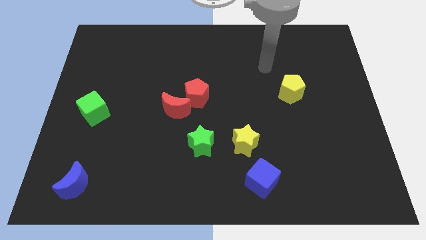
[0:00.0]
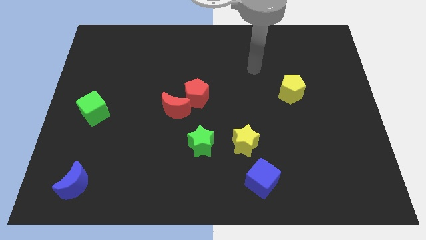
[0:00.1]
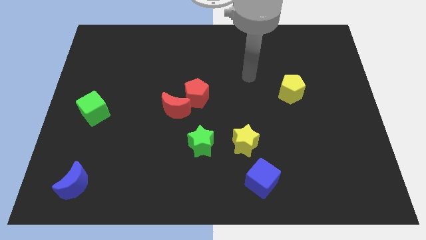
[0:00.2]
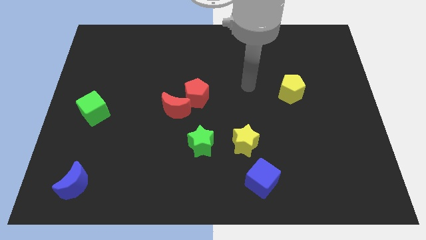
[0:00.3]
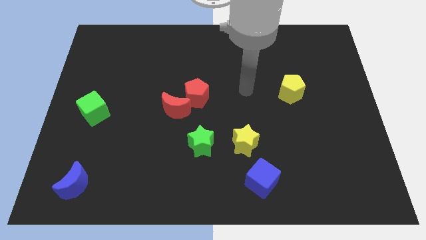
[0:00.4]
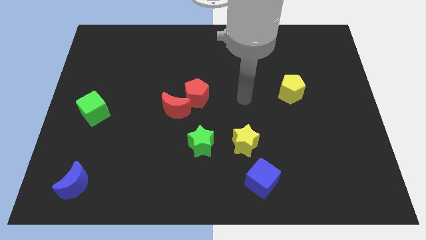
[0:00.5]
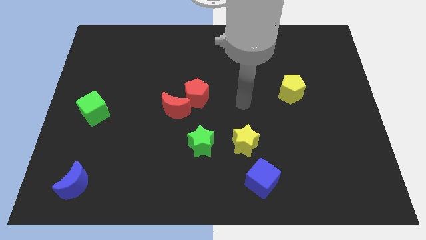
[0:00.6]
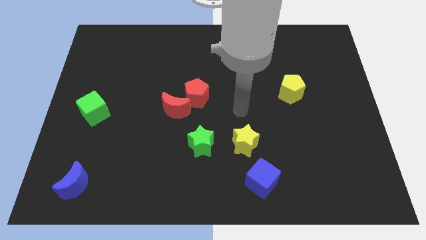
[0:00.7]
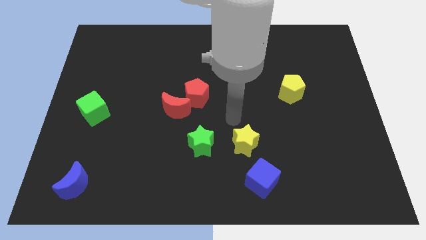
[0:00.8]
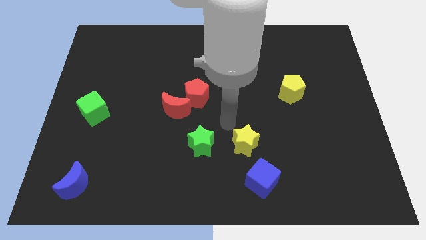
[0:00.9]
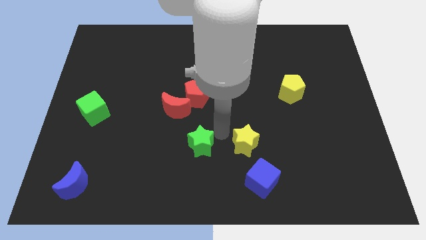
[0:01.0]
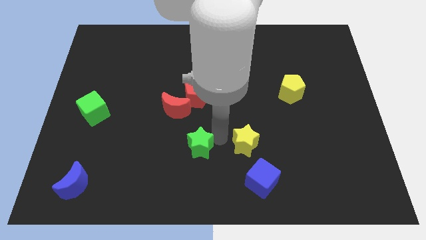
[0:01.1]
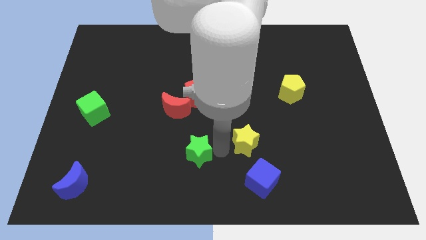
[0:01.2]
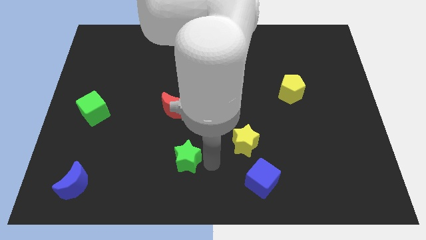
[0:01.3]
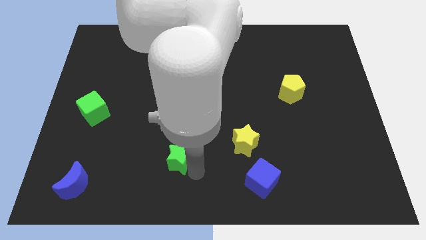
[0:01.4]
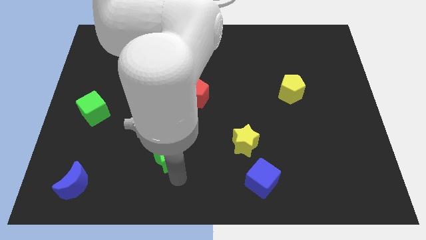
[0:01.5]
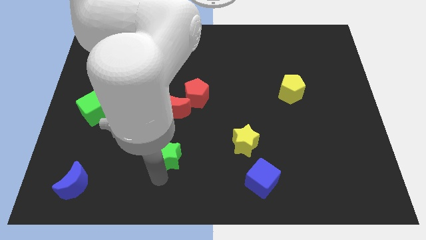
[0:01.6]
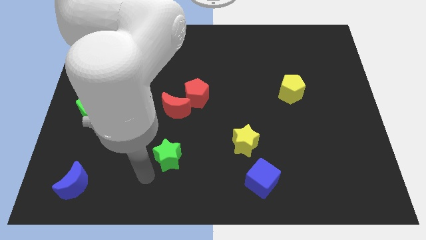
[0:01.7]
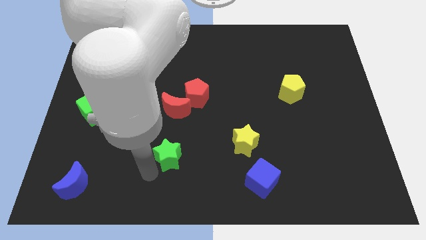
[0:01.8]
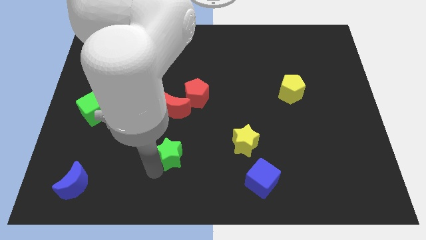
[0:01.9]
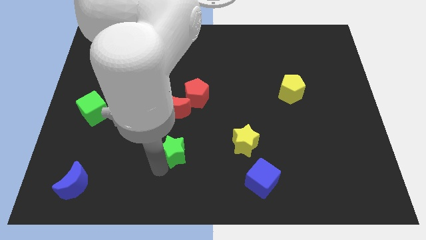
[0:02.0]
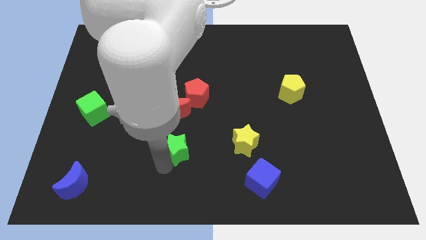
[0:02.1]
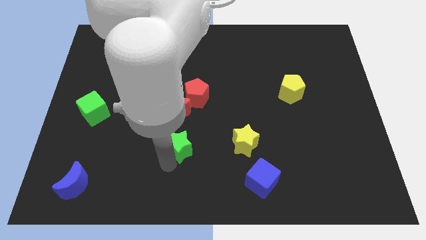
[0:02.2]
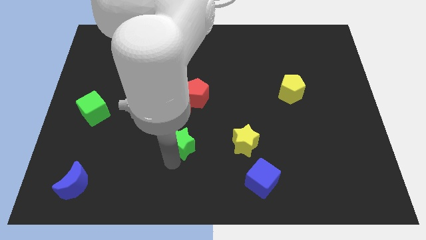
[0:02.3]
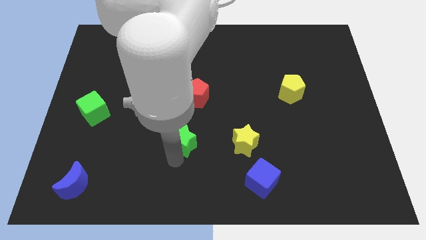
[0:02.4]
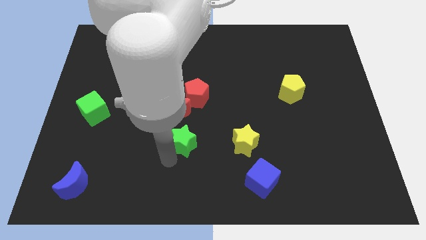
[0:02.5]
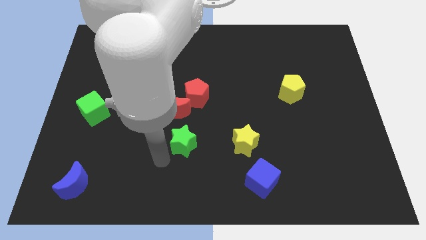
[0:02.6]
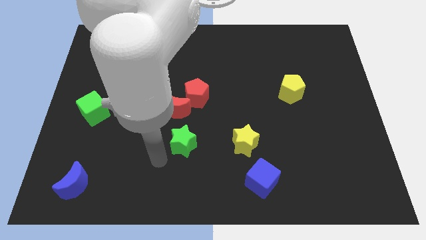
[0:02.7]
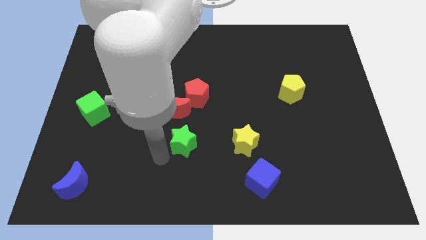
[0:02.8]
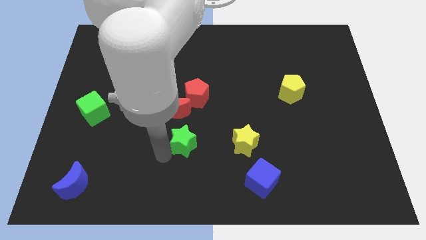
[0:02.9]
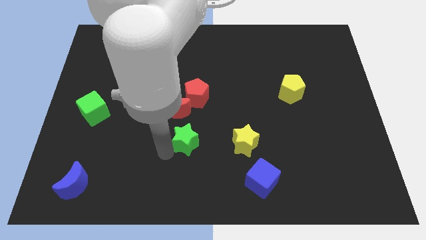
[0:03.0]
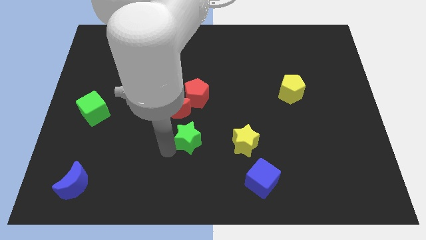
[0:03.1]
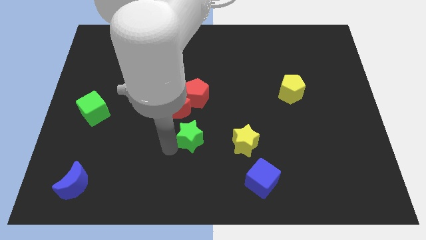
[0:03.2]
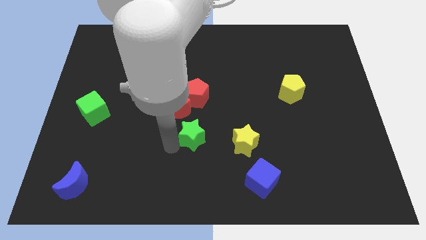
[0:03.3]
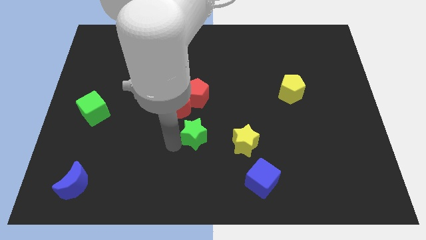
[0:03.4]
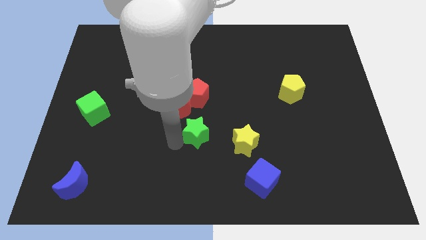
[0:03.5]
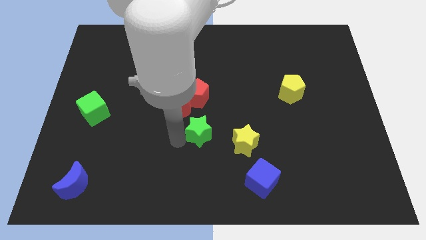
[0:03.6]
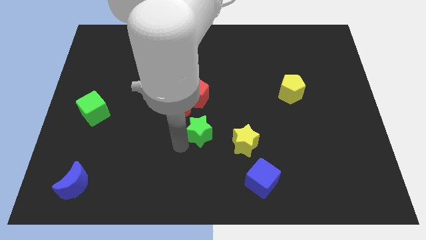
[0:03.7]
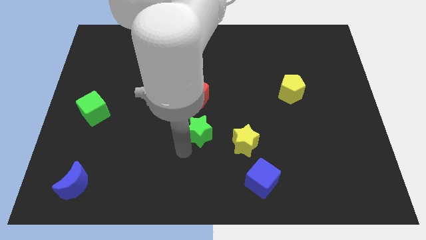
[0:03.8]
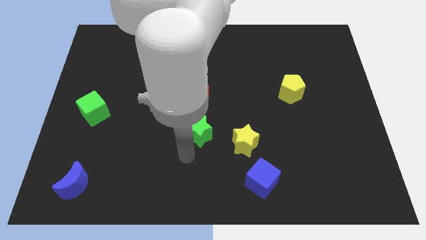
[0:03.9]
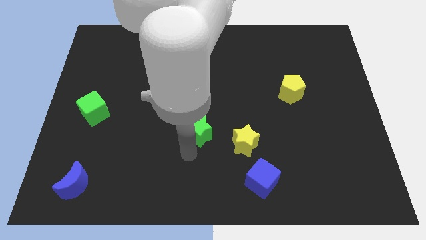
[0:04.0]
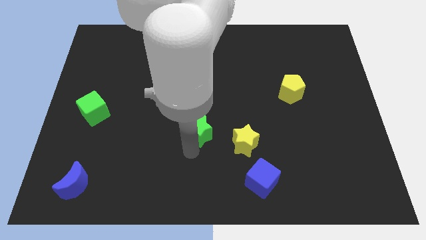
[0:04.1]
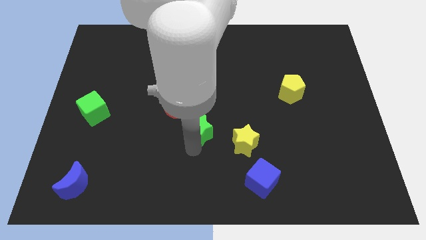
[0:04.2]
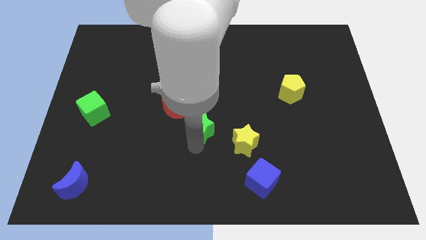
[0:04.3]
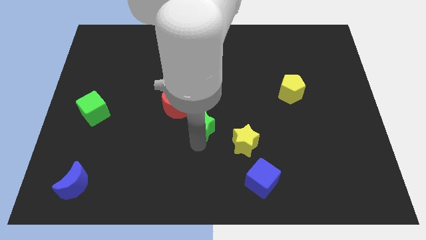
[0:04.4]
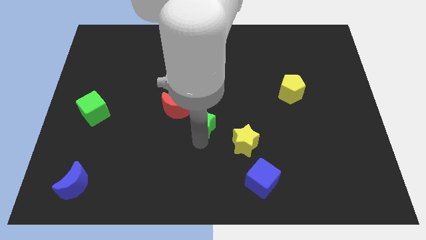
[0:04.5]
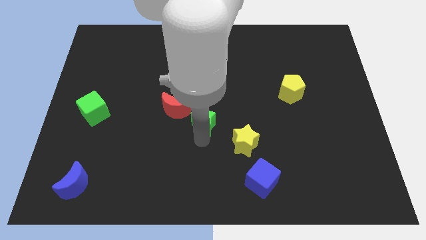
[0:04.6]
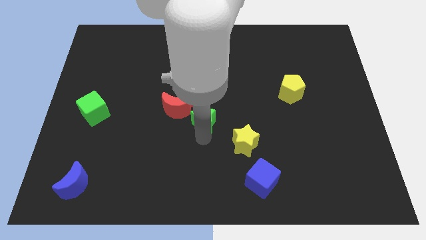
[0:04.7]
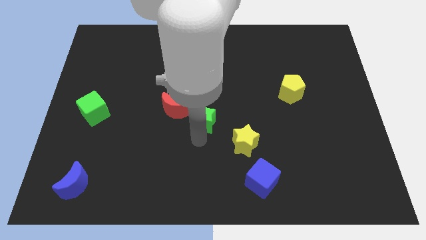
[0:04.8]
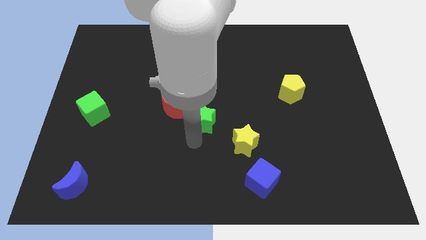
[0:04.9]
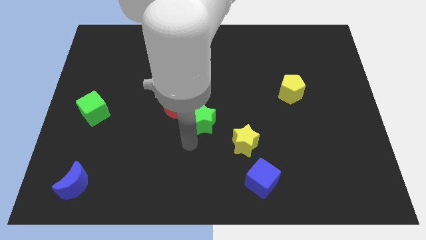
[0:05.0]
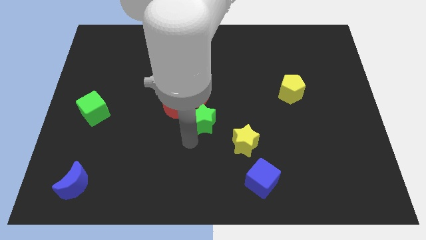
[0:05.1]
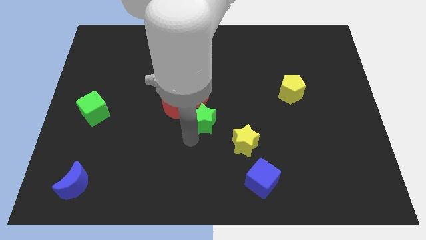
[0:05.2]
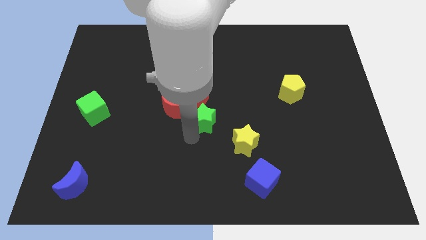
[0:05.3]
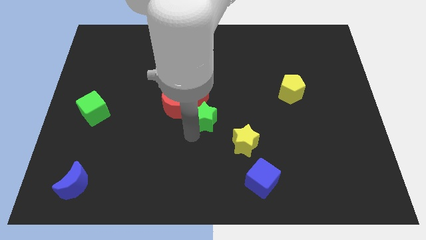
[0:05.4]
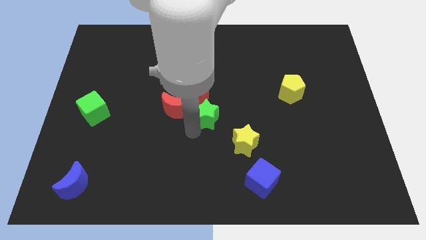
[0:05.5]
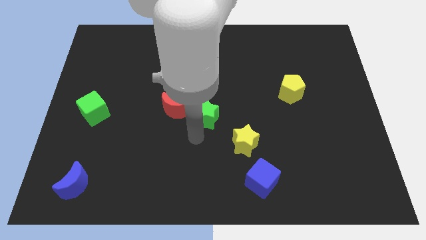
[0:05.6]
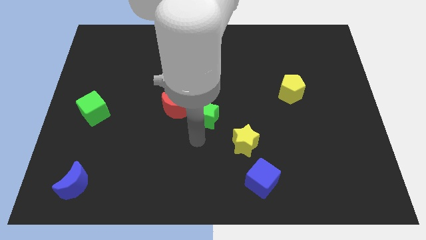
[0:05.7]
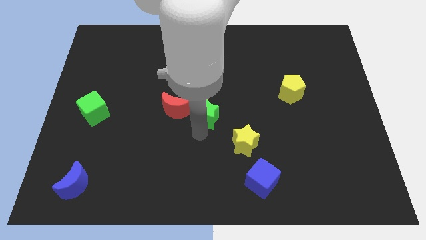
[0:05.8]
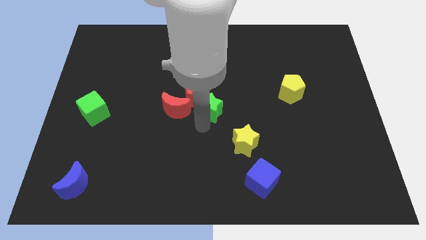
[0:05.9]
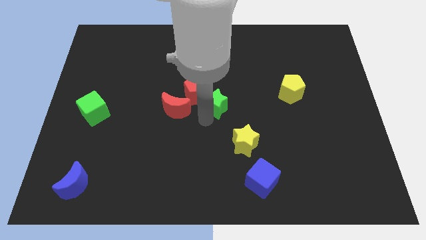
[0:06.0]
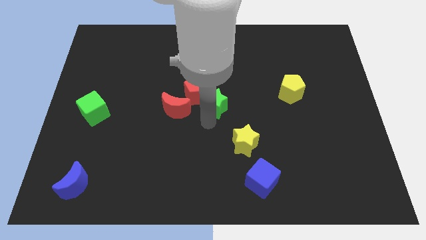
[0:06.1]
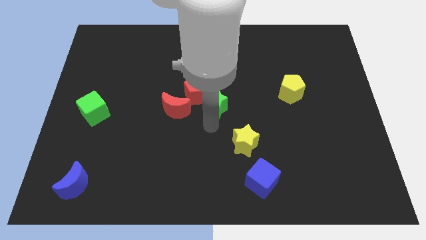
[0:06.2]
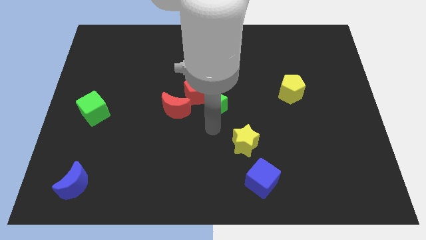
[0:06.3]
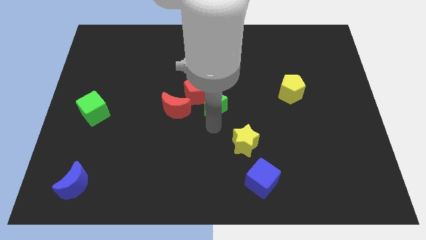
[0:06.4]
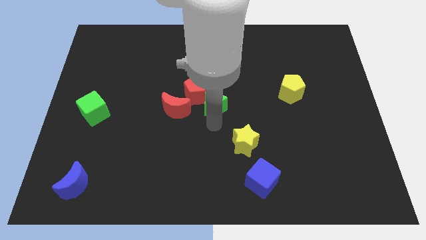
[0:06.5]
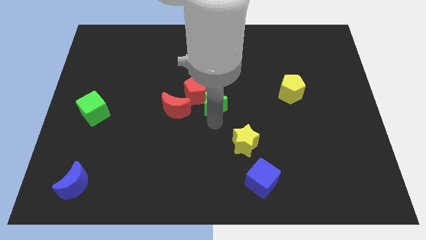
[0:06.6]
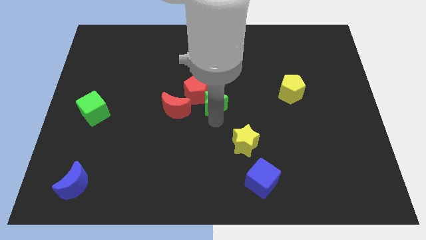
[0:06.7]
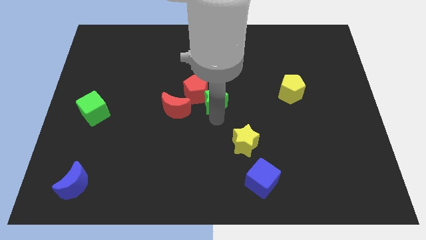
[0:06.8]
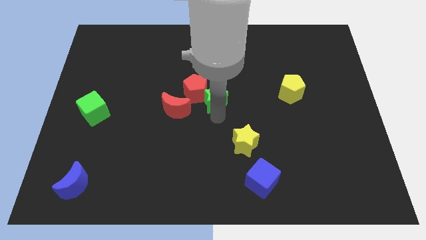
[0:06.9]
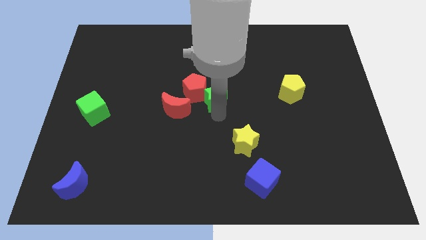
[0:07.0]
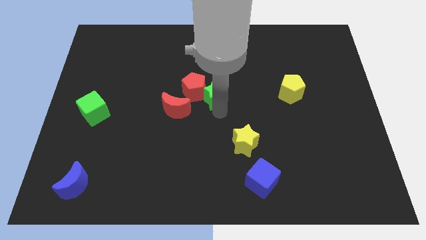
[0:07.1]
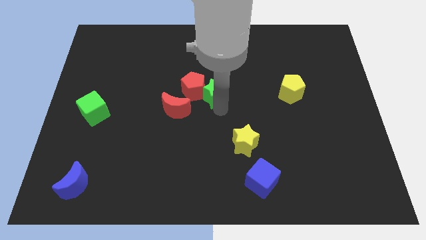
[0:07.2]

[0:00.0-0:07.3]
push the green star to the top right of the red pentagon
